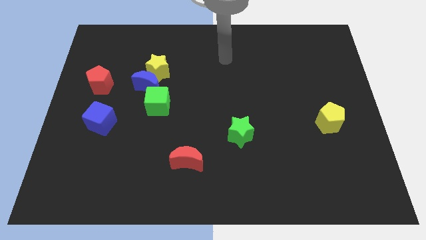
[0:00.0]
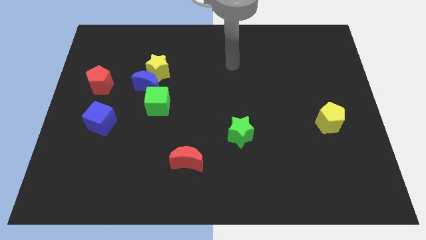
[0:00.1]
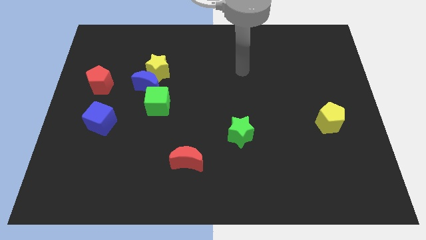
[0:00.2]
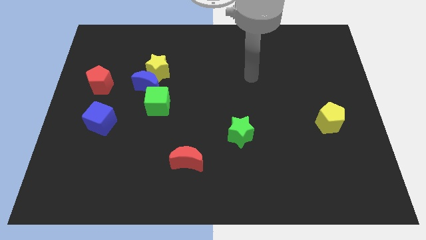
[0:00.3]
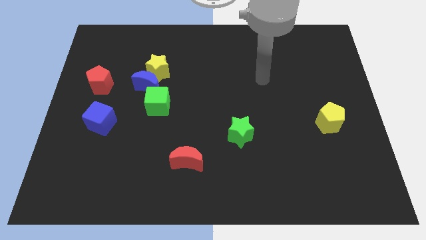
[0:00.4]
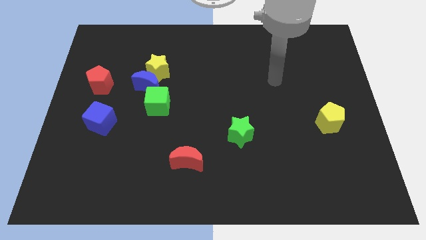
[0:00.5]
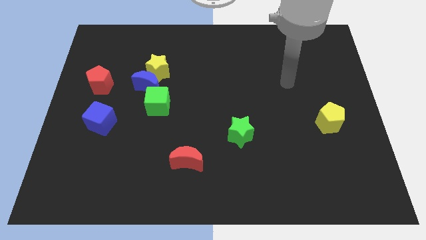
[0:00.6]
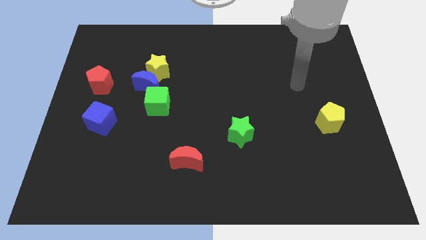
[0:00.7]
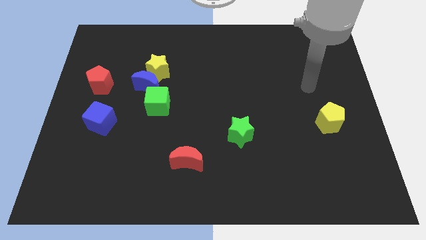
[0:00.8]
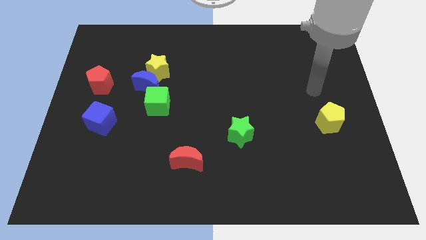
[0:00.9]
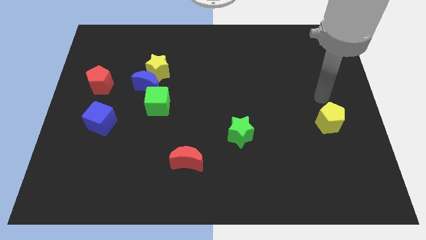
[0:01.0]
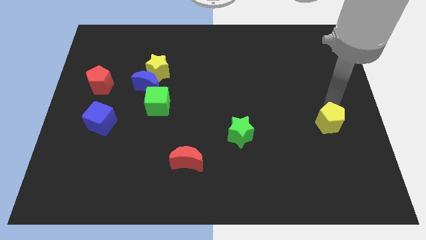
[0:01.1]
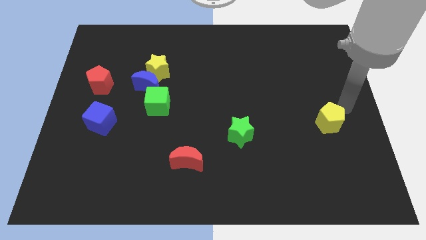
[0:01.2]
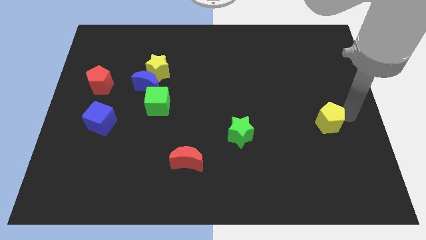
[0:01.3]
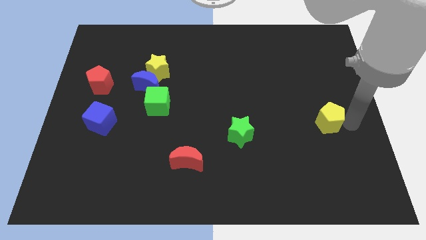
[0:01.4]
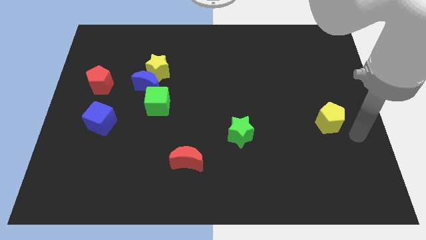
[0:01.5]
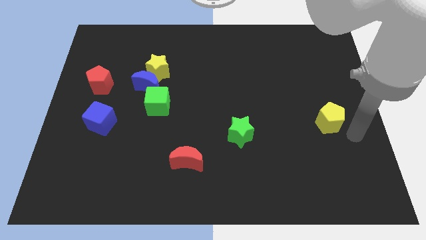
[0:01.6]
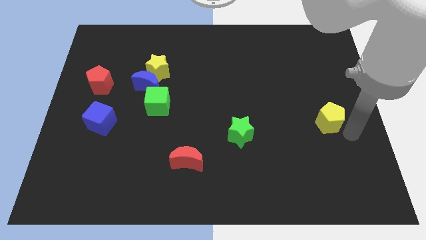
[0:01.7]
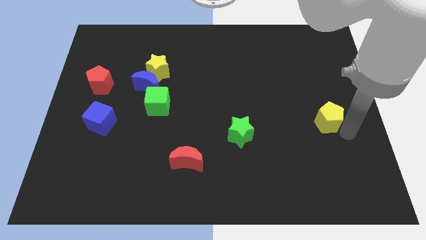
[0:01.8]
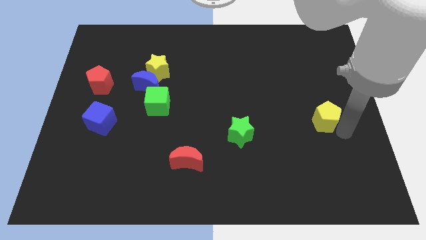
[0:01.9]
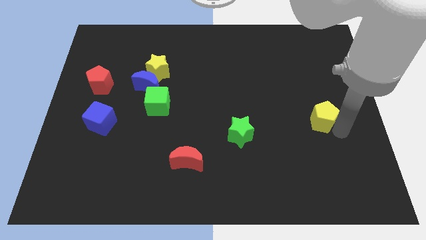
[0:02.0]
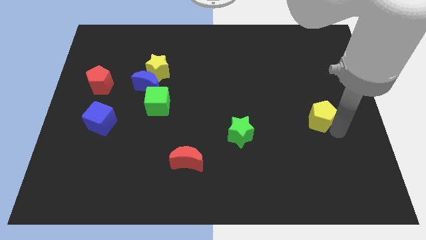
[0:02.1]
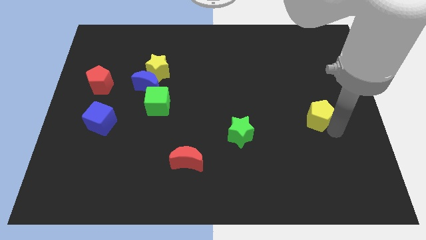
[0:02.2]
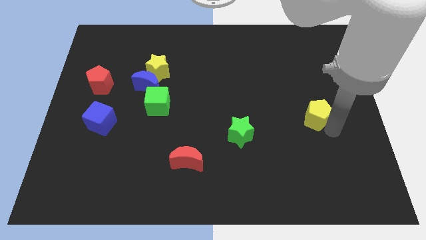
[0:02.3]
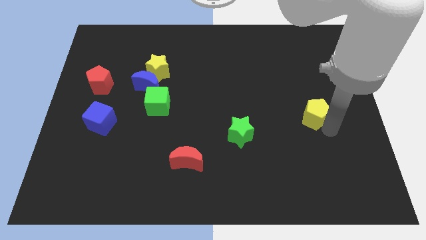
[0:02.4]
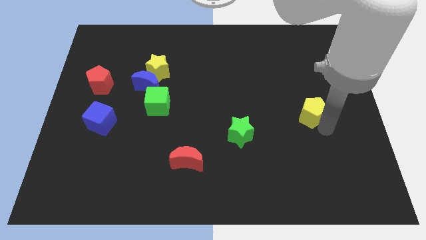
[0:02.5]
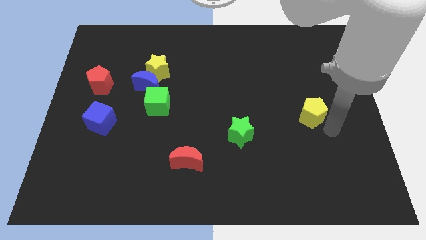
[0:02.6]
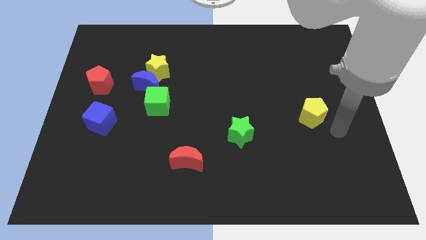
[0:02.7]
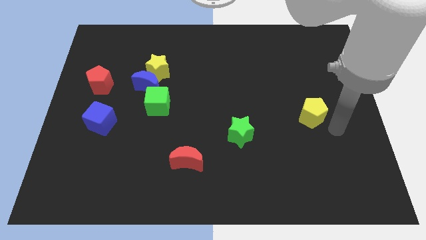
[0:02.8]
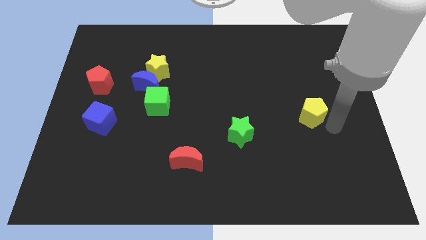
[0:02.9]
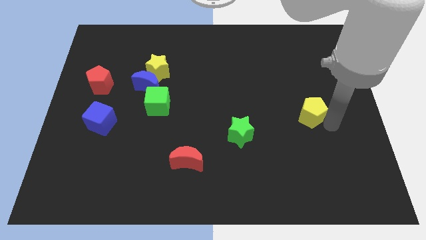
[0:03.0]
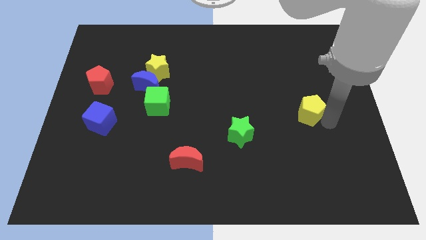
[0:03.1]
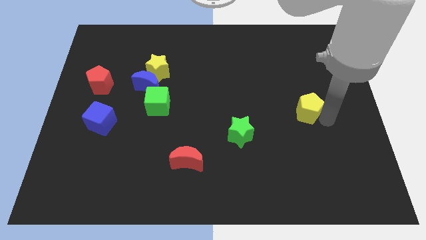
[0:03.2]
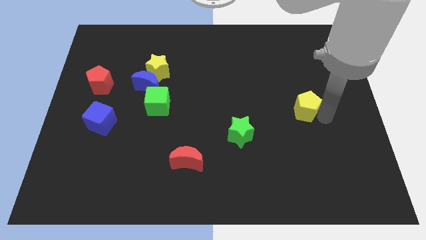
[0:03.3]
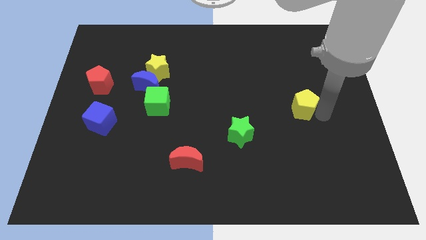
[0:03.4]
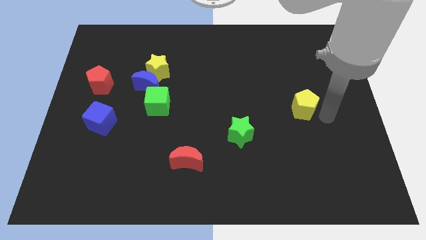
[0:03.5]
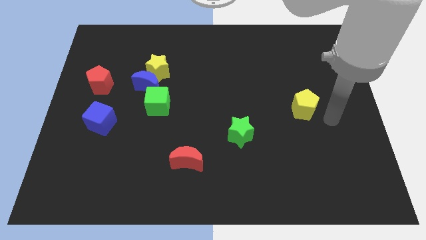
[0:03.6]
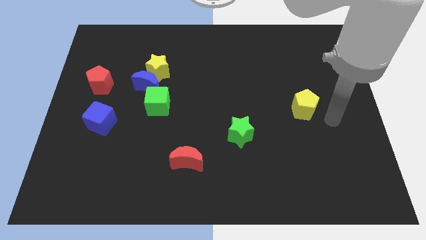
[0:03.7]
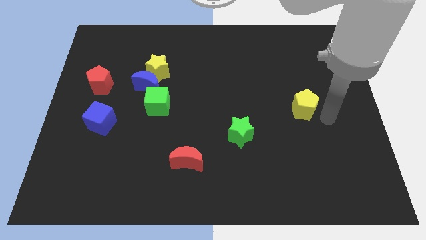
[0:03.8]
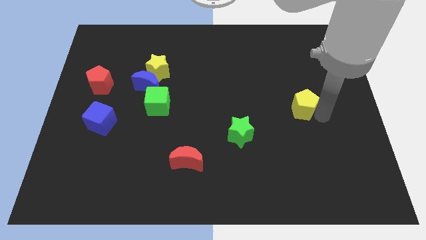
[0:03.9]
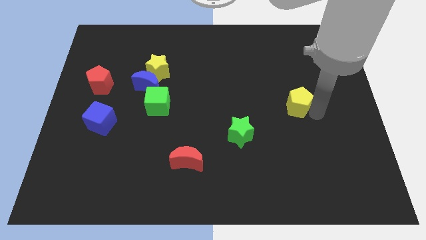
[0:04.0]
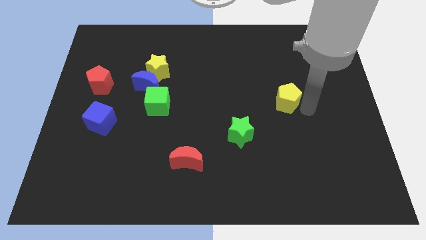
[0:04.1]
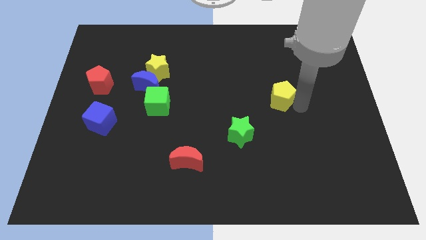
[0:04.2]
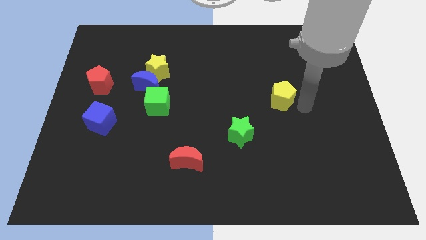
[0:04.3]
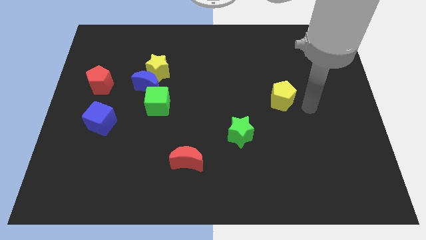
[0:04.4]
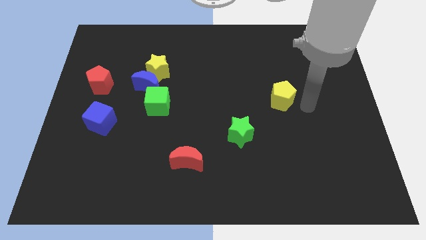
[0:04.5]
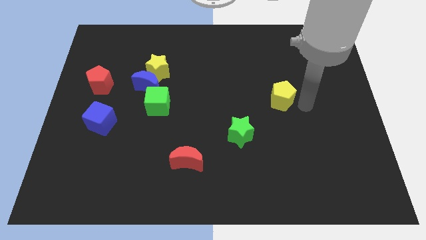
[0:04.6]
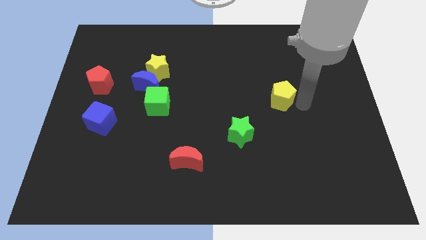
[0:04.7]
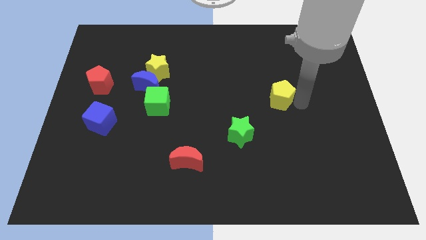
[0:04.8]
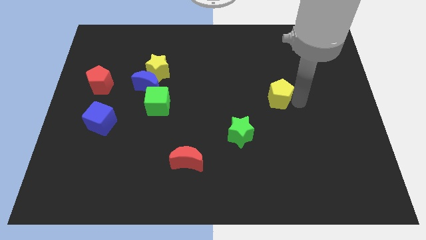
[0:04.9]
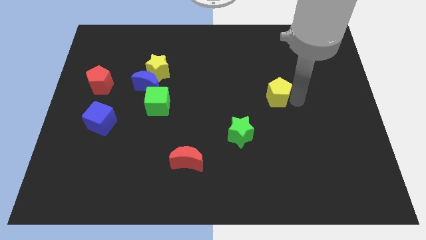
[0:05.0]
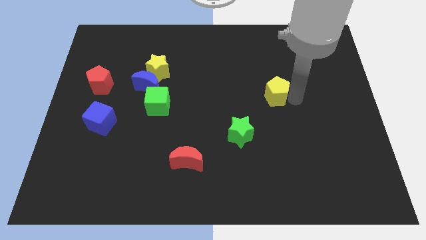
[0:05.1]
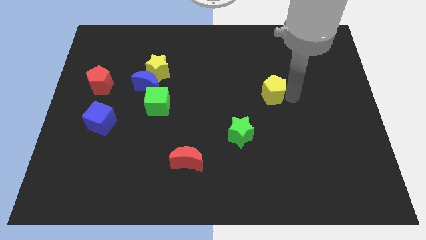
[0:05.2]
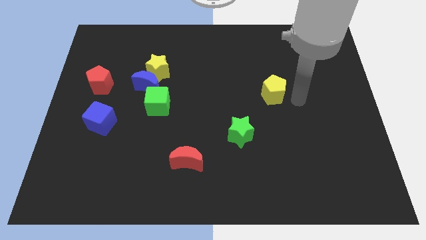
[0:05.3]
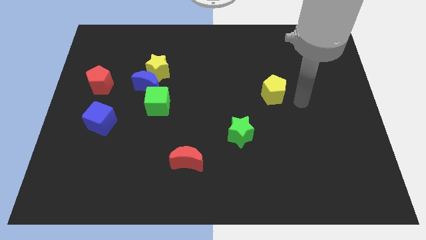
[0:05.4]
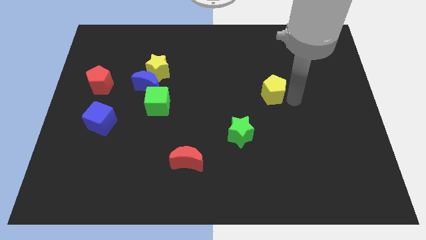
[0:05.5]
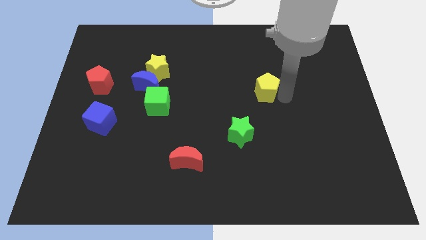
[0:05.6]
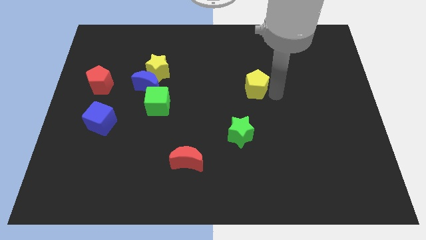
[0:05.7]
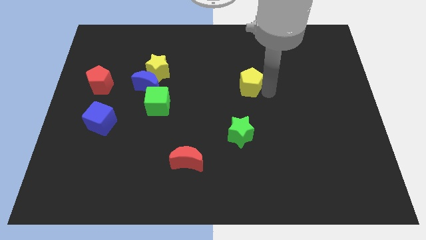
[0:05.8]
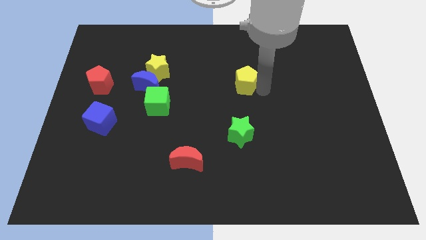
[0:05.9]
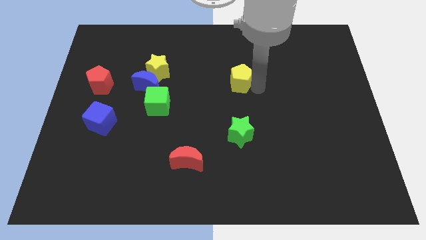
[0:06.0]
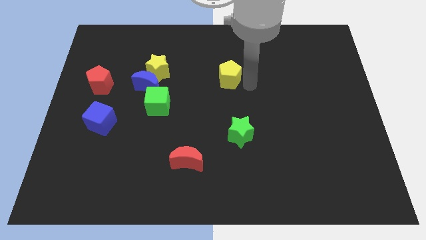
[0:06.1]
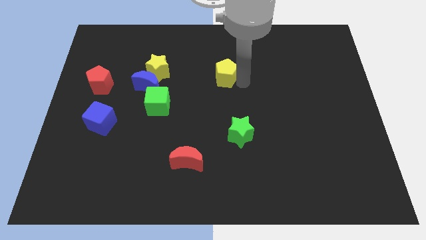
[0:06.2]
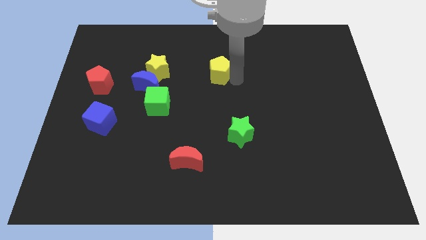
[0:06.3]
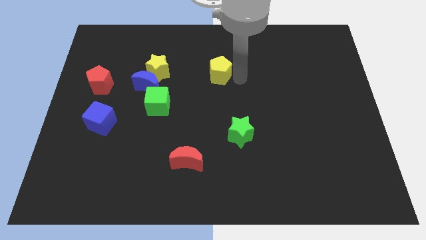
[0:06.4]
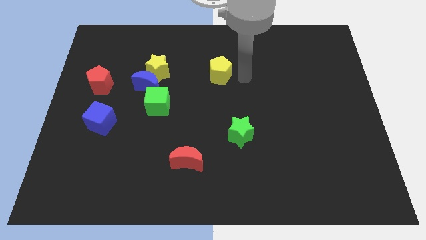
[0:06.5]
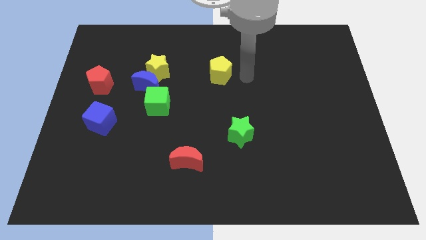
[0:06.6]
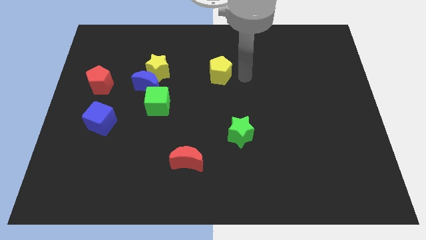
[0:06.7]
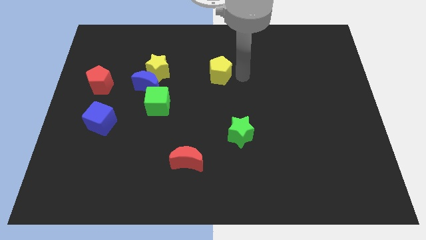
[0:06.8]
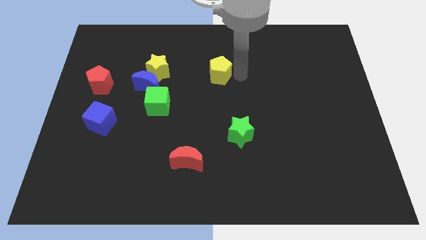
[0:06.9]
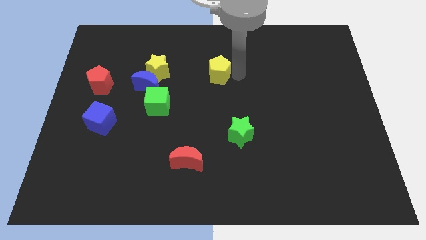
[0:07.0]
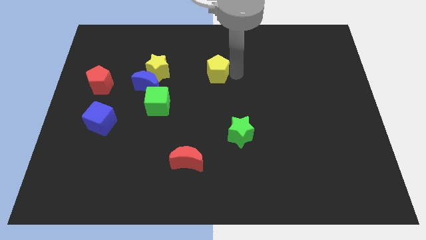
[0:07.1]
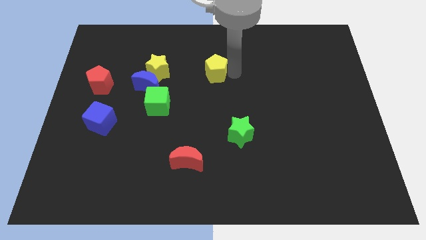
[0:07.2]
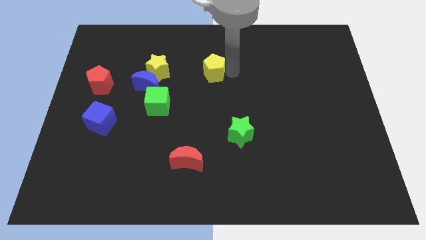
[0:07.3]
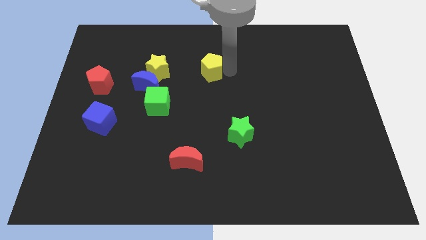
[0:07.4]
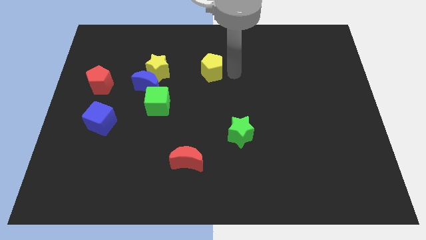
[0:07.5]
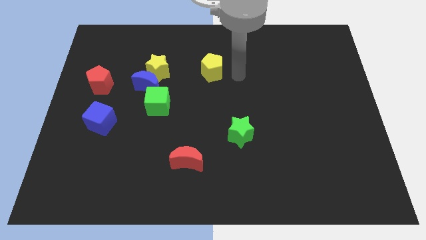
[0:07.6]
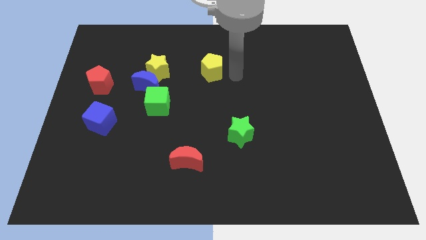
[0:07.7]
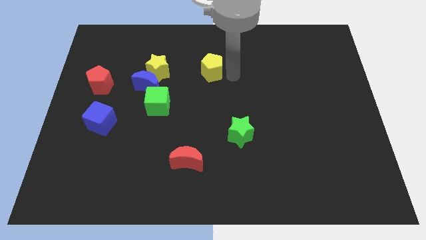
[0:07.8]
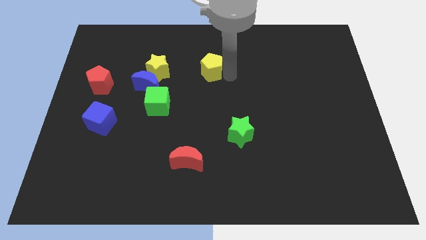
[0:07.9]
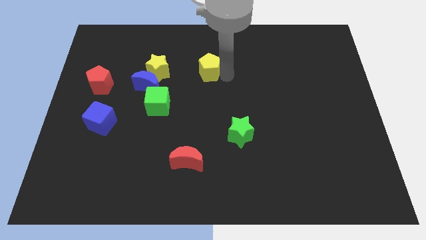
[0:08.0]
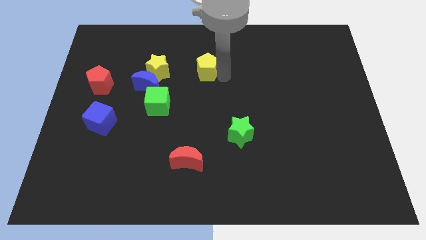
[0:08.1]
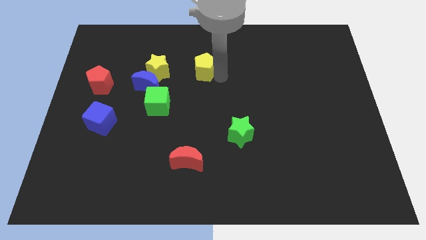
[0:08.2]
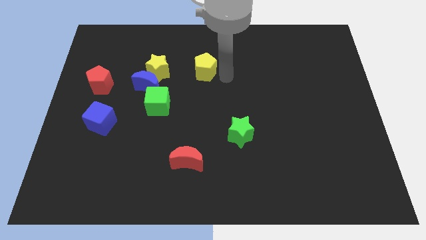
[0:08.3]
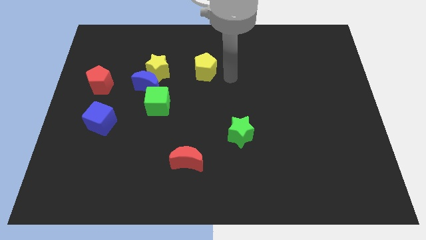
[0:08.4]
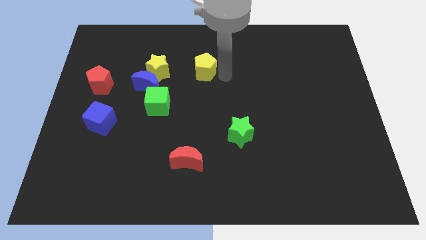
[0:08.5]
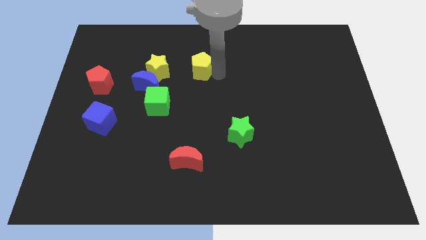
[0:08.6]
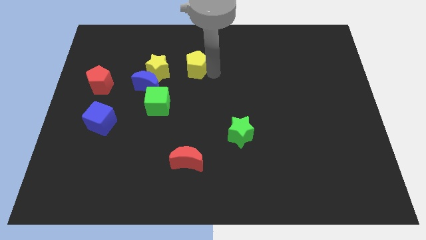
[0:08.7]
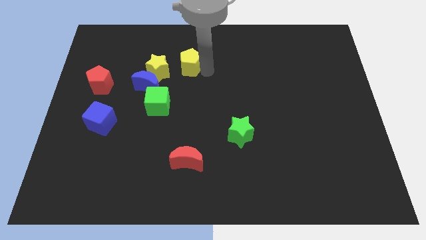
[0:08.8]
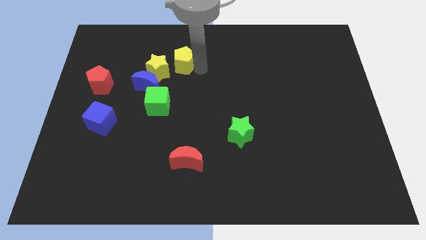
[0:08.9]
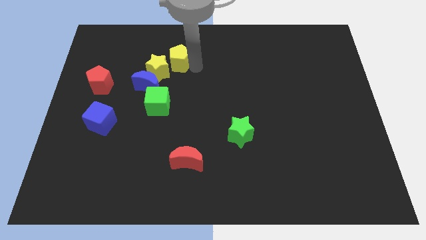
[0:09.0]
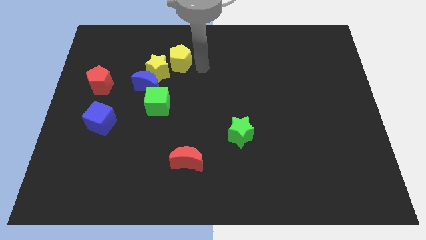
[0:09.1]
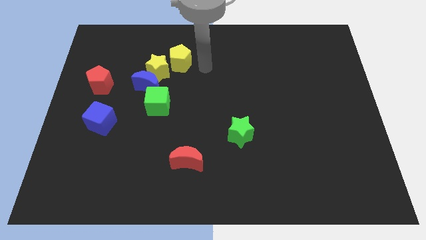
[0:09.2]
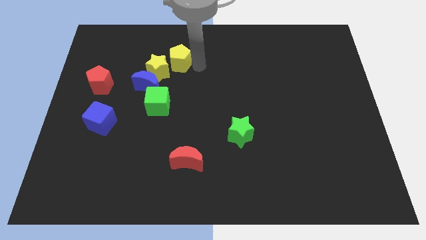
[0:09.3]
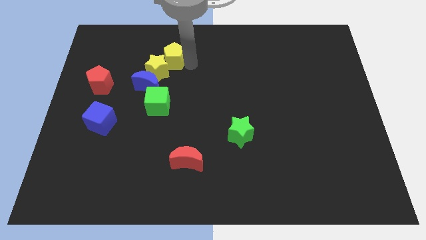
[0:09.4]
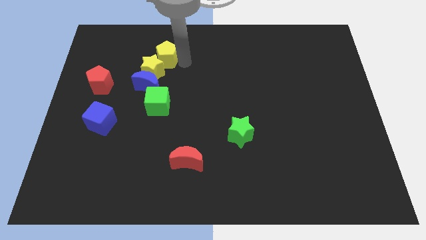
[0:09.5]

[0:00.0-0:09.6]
slide the yellow pentagon above the blue moon
